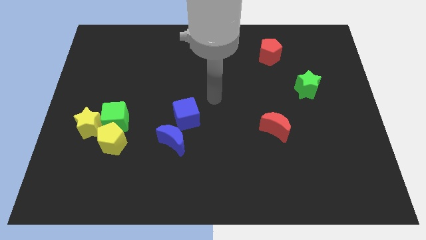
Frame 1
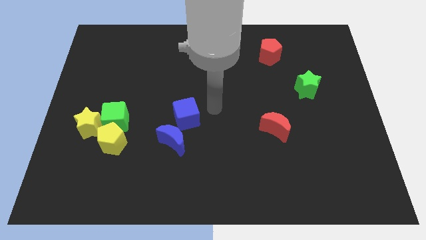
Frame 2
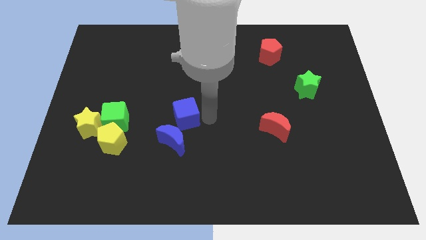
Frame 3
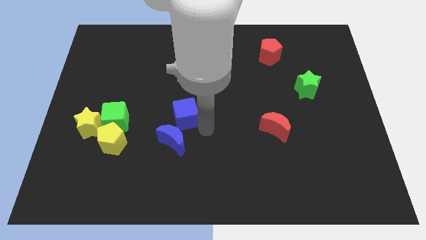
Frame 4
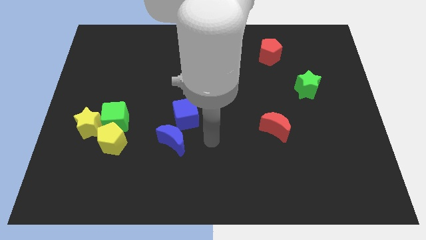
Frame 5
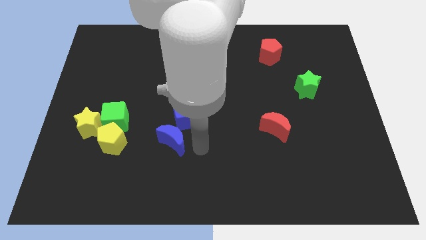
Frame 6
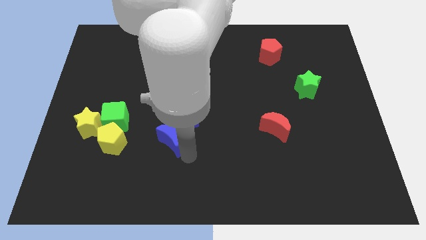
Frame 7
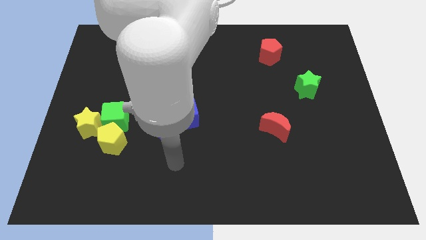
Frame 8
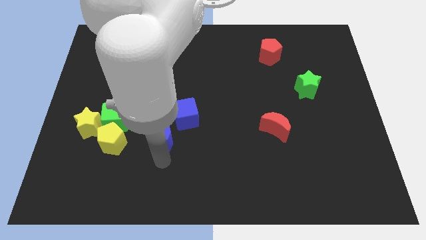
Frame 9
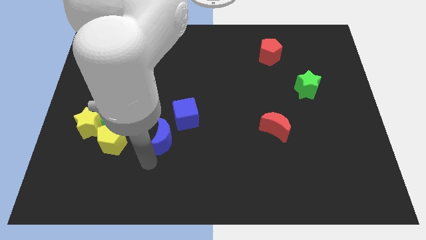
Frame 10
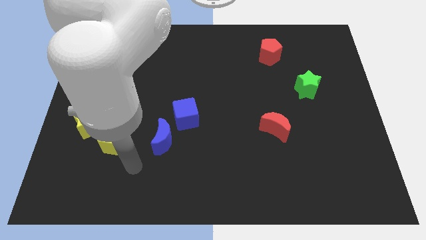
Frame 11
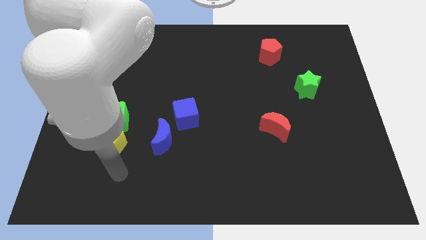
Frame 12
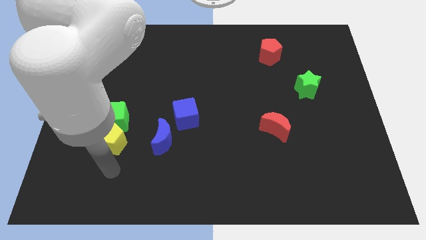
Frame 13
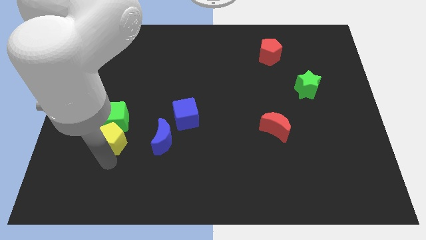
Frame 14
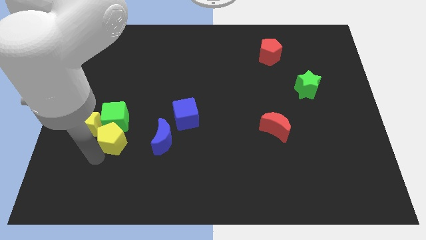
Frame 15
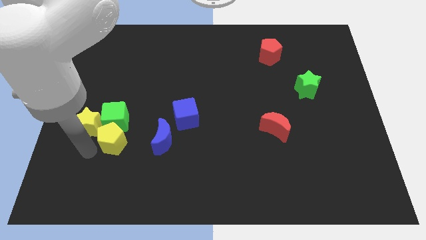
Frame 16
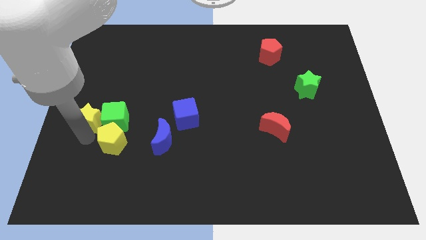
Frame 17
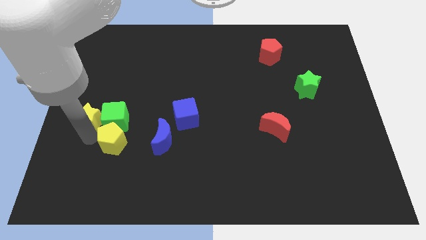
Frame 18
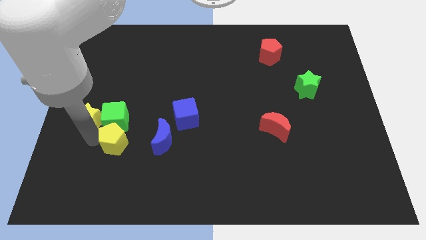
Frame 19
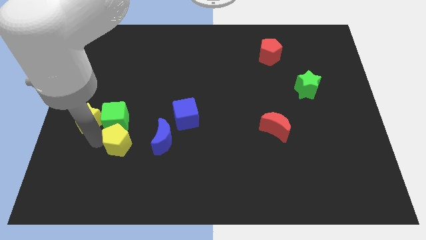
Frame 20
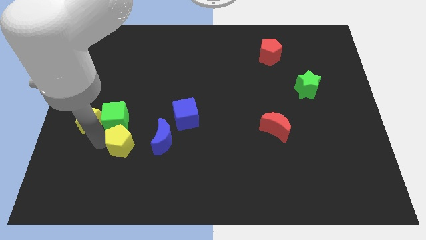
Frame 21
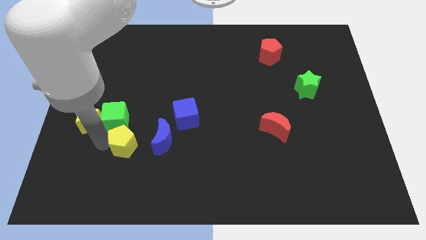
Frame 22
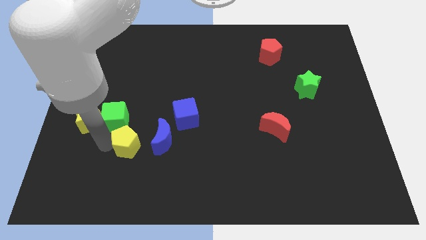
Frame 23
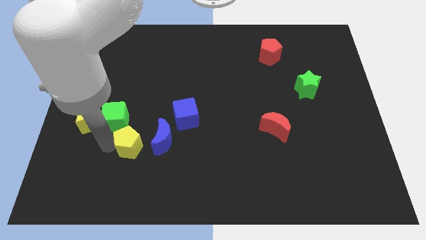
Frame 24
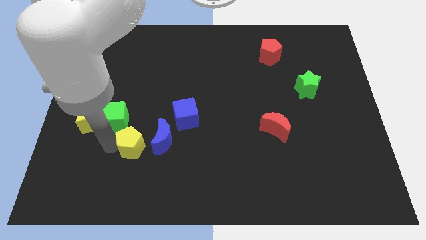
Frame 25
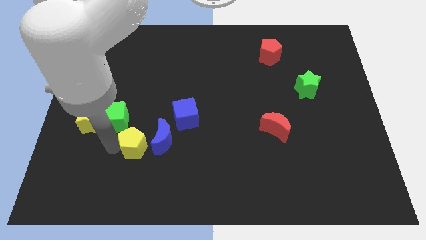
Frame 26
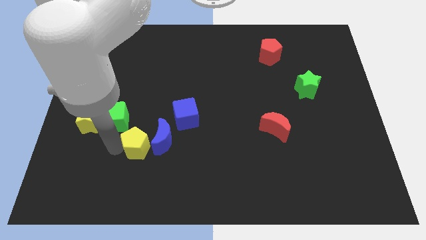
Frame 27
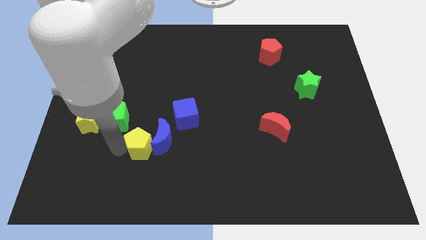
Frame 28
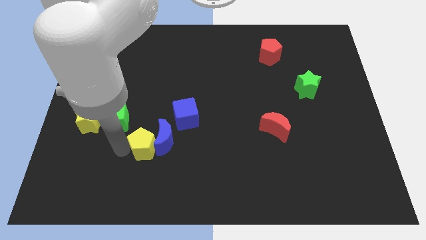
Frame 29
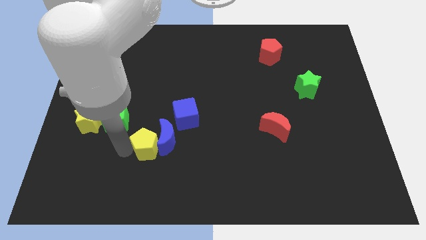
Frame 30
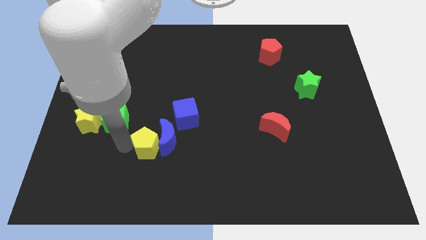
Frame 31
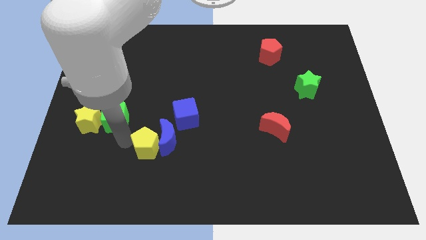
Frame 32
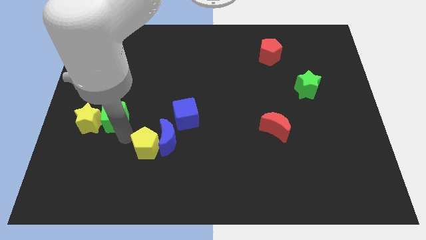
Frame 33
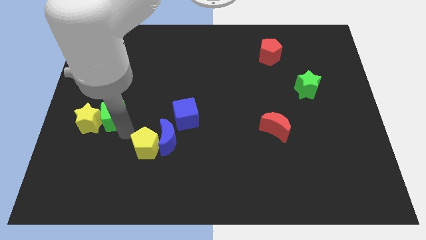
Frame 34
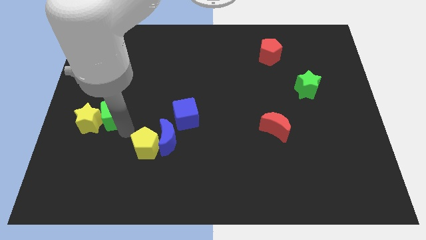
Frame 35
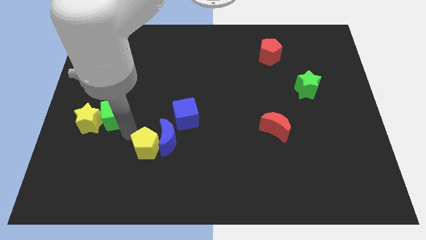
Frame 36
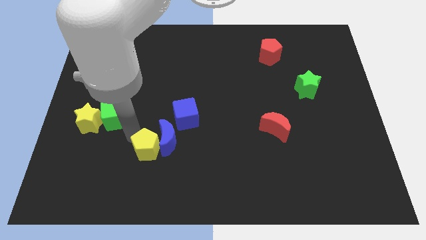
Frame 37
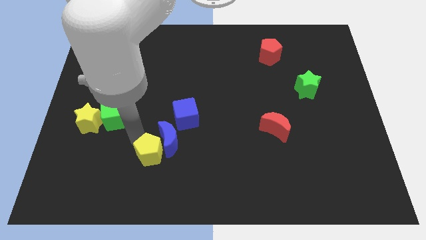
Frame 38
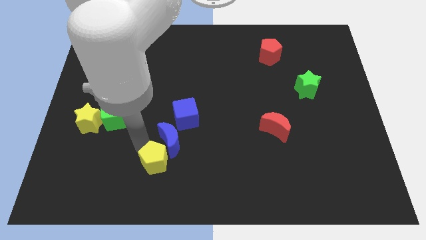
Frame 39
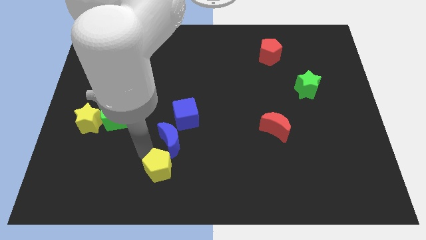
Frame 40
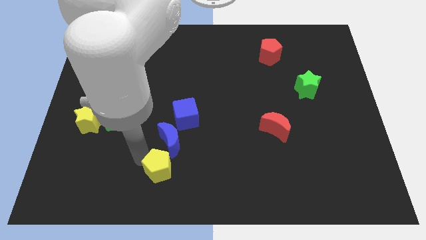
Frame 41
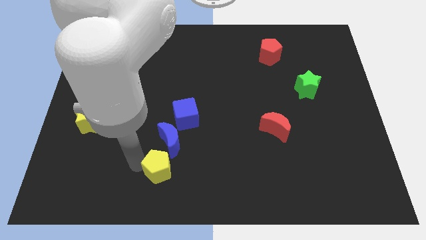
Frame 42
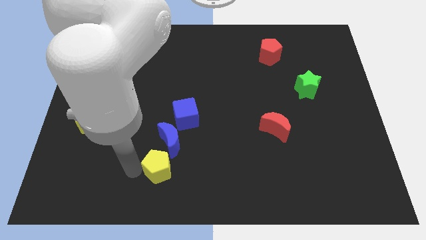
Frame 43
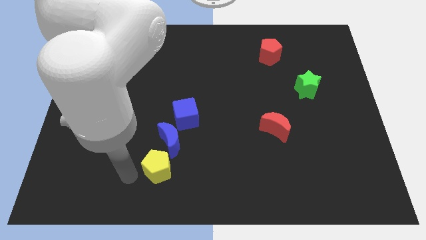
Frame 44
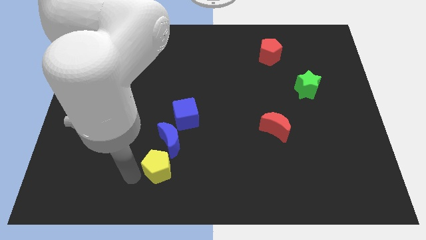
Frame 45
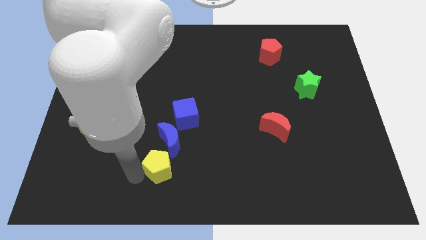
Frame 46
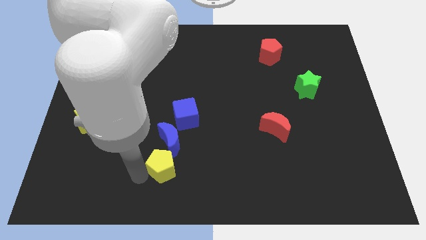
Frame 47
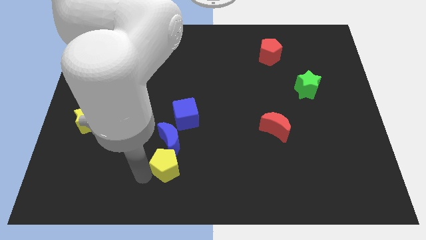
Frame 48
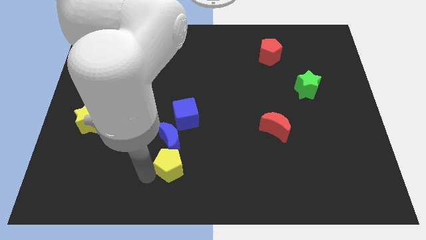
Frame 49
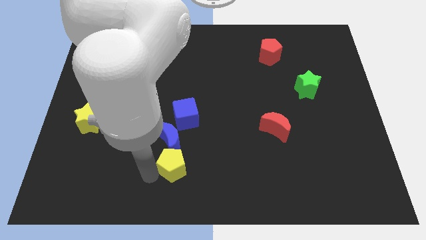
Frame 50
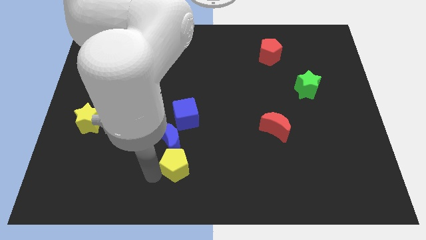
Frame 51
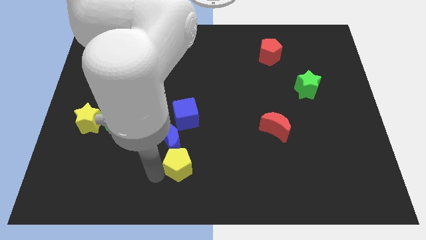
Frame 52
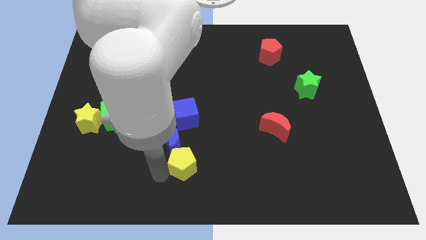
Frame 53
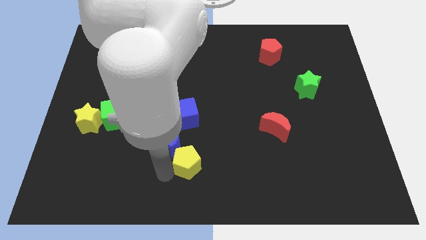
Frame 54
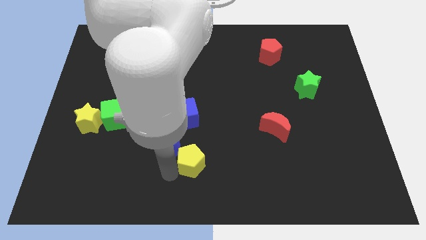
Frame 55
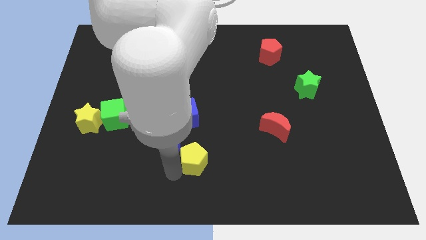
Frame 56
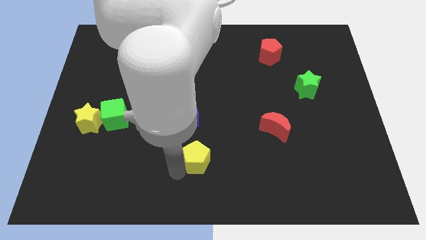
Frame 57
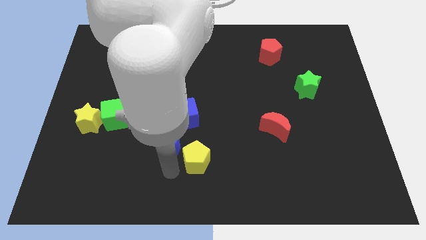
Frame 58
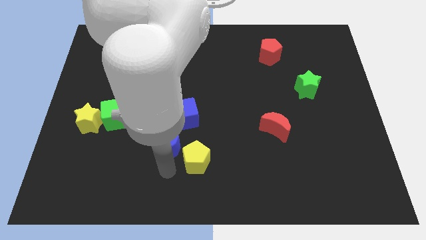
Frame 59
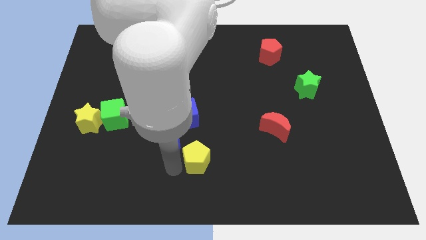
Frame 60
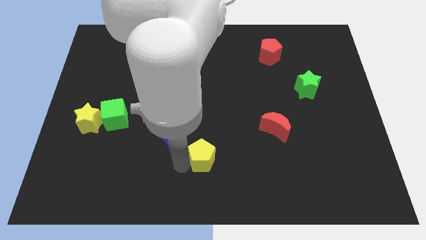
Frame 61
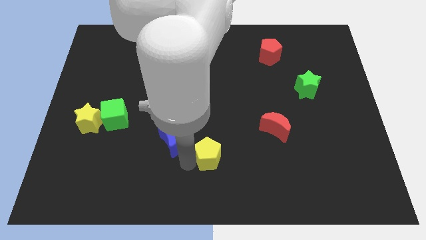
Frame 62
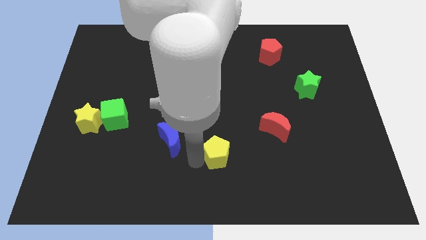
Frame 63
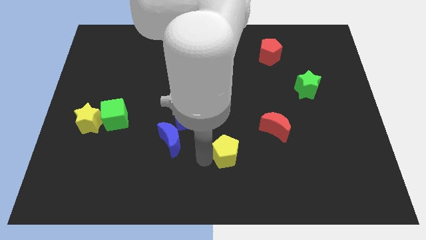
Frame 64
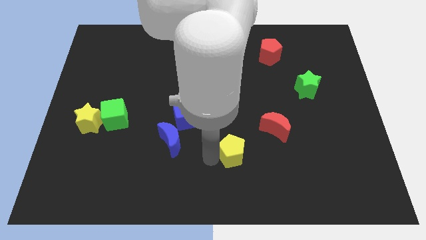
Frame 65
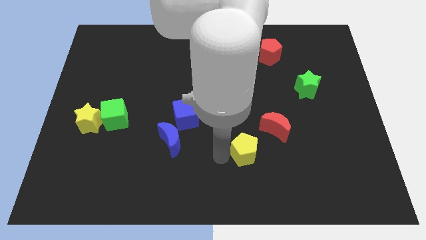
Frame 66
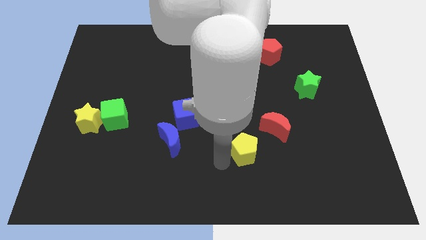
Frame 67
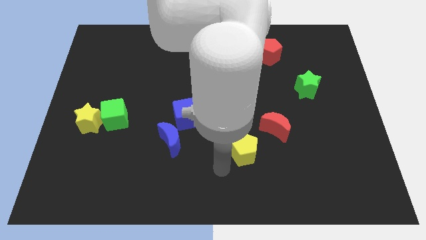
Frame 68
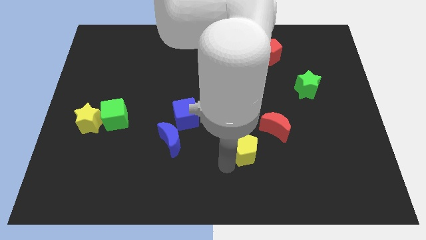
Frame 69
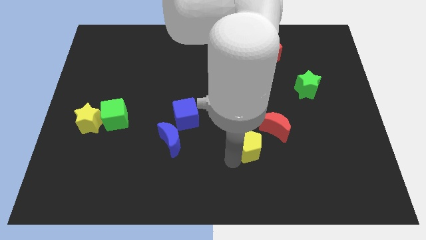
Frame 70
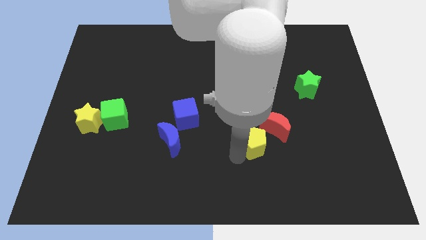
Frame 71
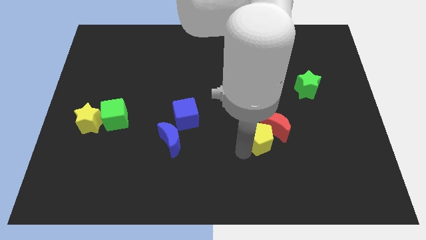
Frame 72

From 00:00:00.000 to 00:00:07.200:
move the yellow pentagon towards the red moon
